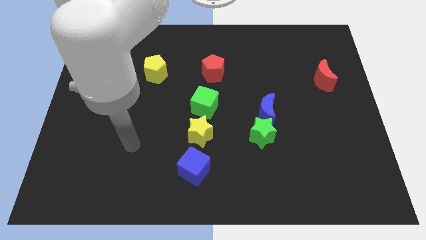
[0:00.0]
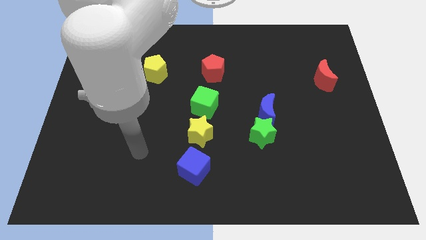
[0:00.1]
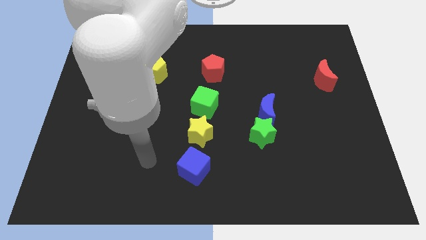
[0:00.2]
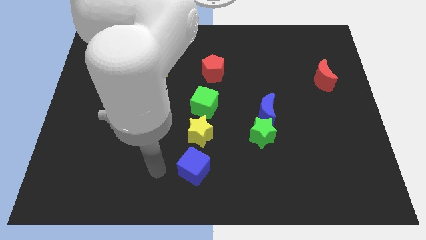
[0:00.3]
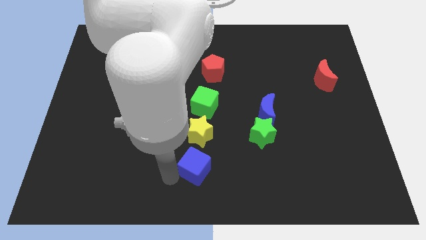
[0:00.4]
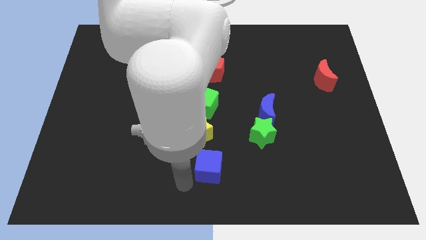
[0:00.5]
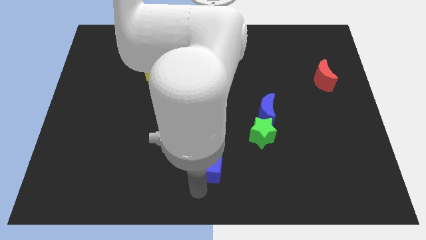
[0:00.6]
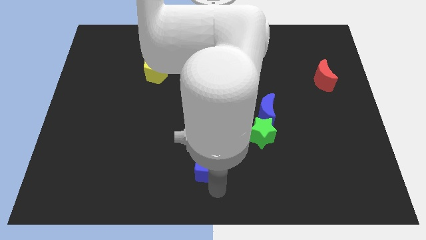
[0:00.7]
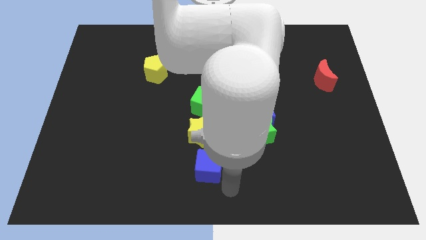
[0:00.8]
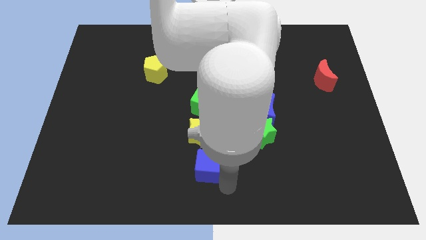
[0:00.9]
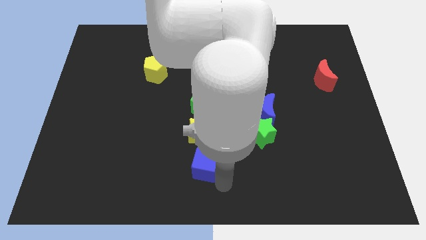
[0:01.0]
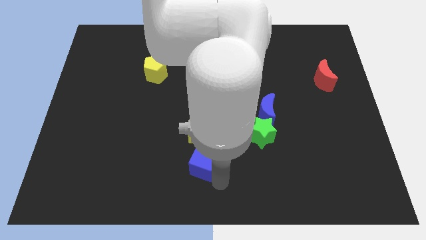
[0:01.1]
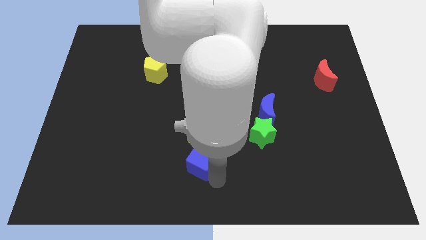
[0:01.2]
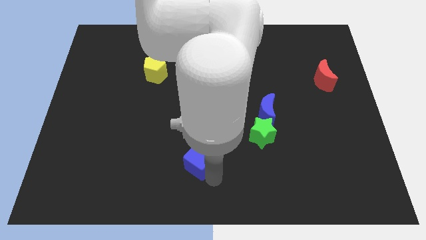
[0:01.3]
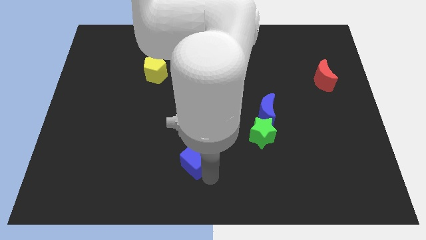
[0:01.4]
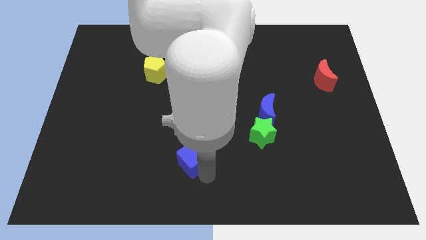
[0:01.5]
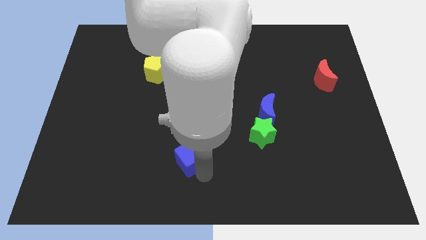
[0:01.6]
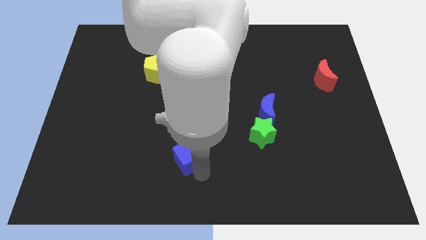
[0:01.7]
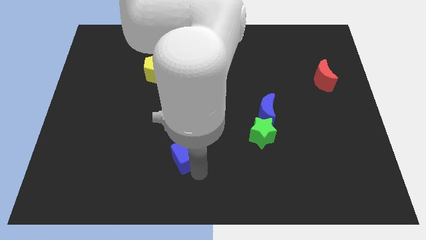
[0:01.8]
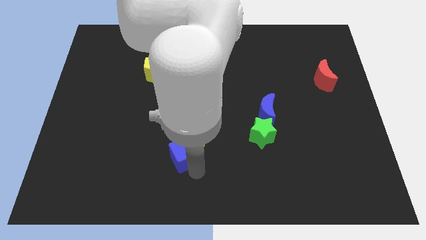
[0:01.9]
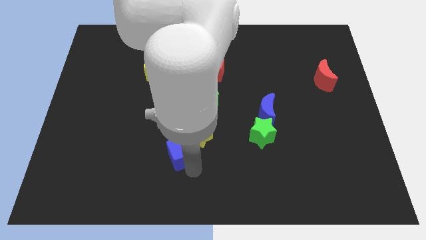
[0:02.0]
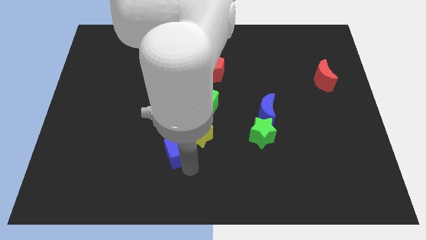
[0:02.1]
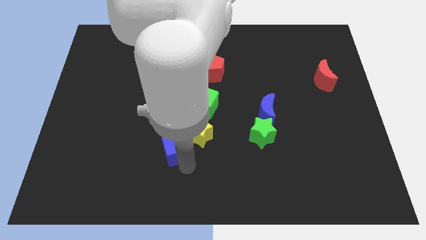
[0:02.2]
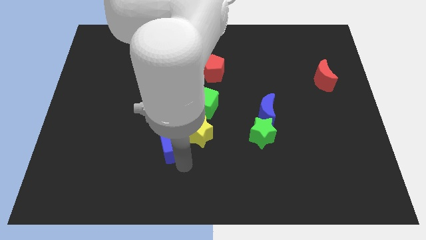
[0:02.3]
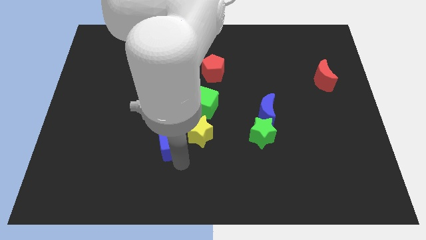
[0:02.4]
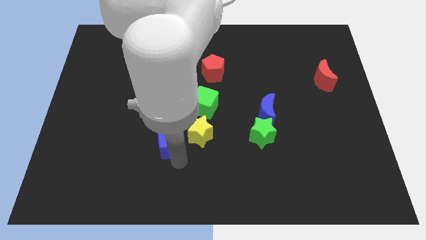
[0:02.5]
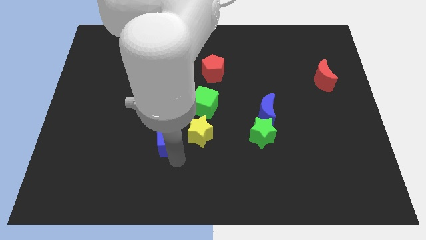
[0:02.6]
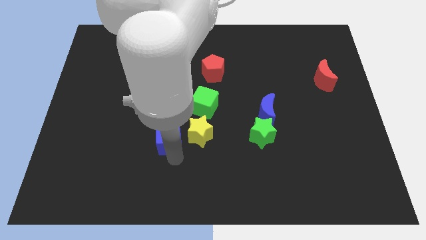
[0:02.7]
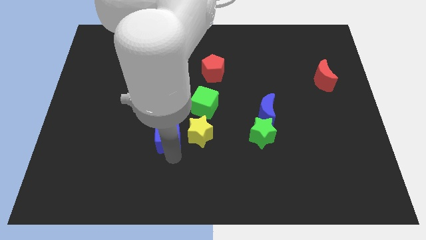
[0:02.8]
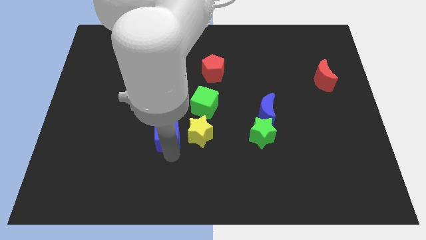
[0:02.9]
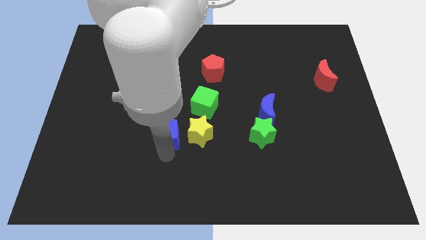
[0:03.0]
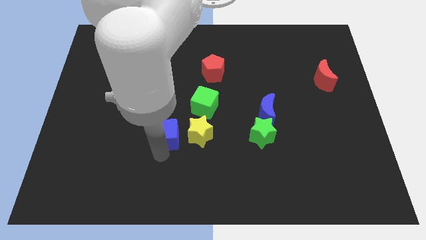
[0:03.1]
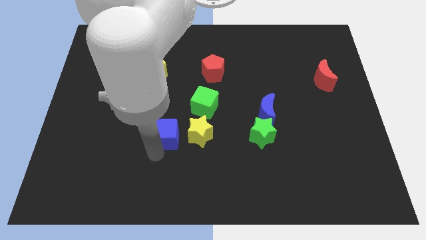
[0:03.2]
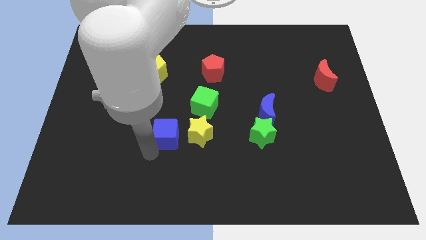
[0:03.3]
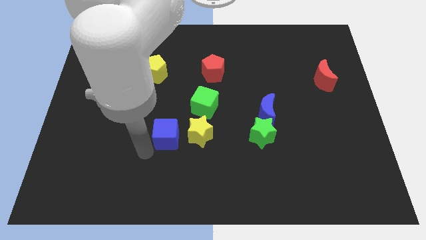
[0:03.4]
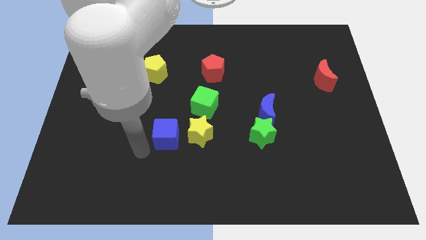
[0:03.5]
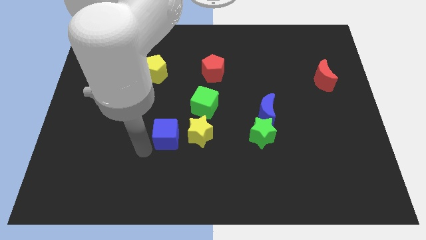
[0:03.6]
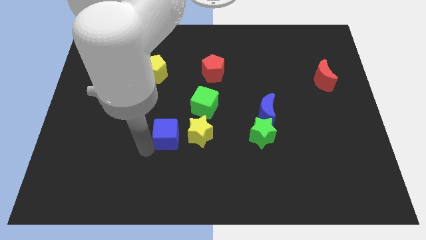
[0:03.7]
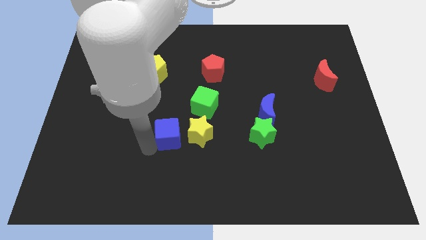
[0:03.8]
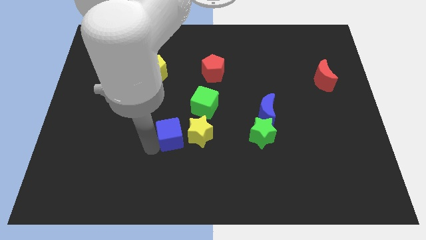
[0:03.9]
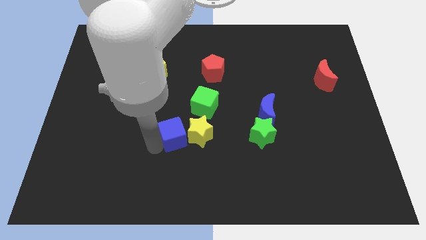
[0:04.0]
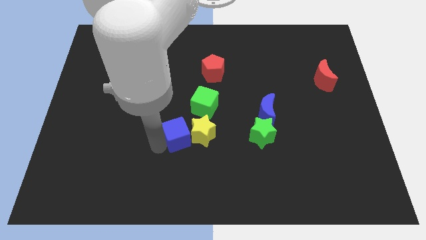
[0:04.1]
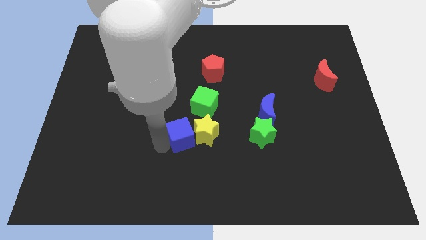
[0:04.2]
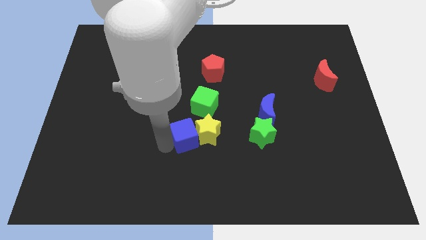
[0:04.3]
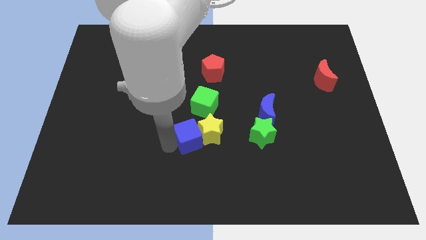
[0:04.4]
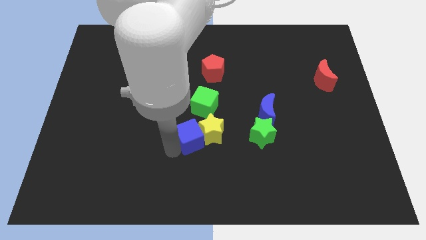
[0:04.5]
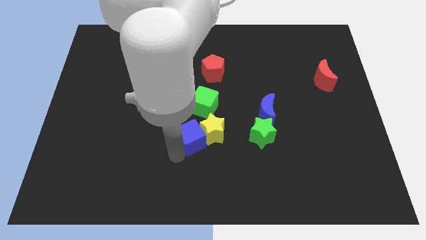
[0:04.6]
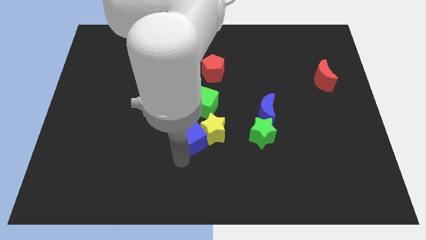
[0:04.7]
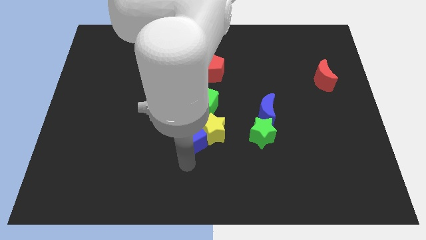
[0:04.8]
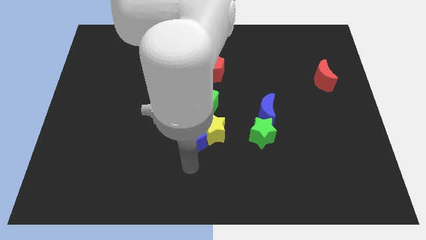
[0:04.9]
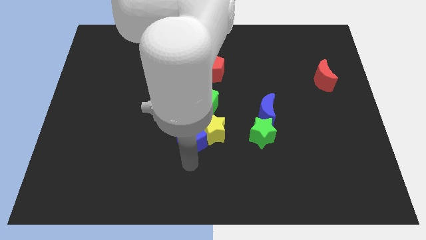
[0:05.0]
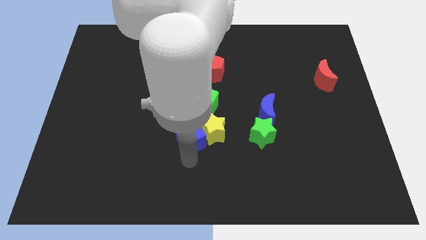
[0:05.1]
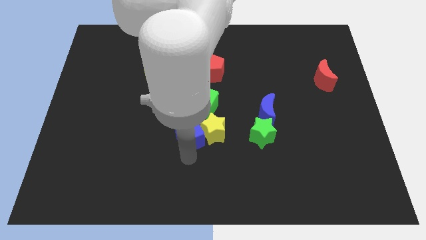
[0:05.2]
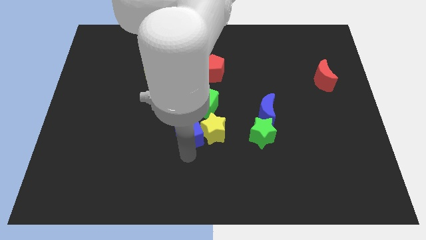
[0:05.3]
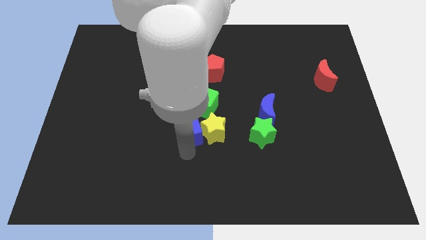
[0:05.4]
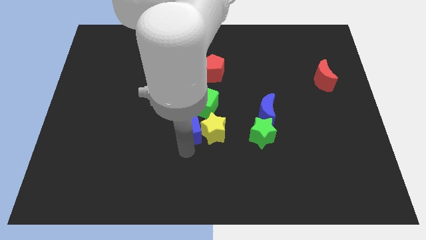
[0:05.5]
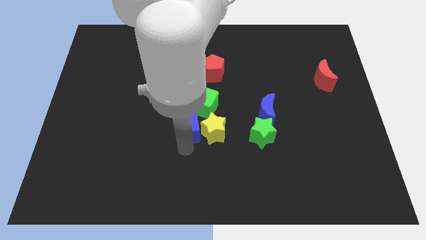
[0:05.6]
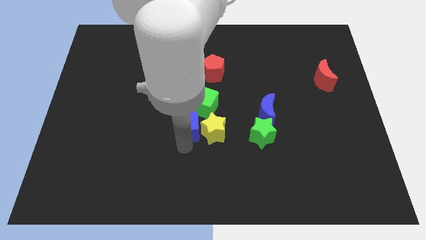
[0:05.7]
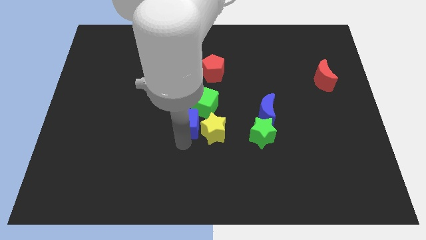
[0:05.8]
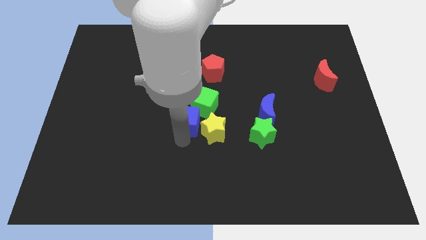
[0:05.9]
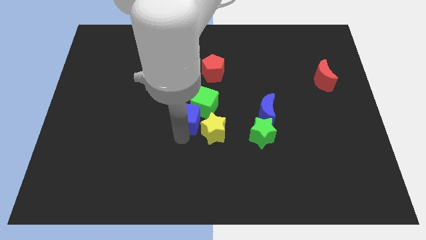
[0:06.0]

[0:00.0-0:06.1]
push the blue cube next to the green cube

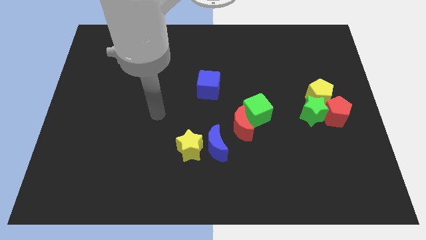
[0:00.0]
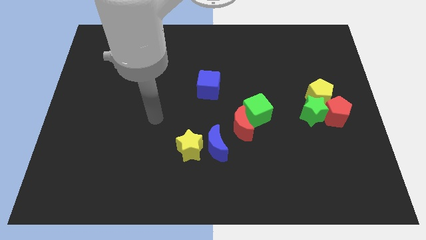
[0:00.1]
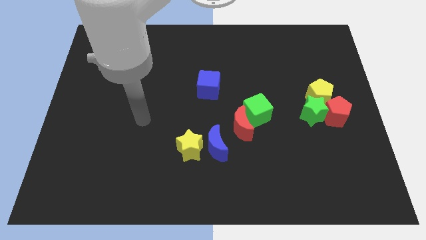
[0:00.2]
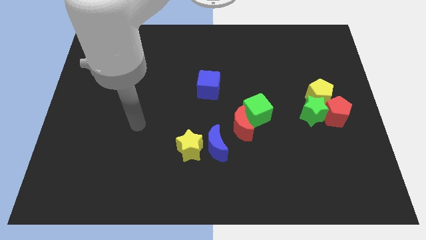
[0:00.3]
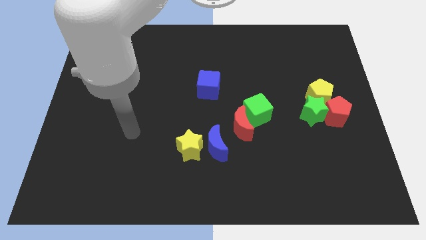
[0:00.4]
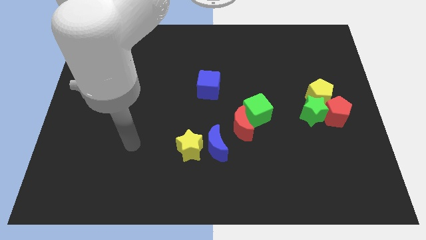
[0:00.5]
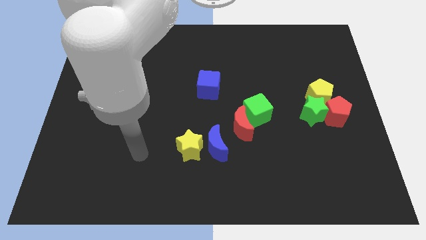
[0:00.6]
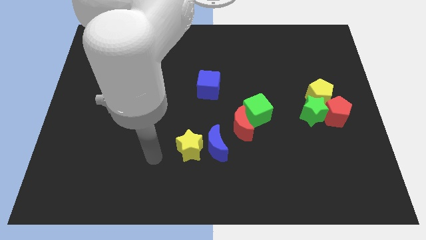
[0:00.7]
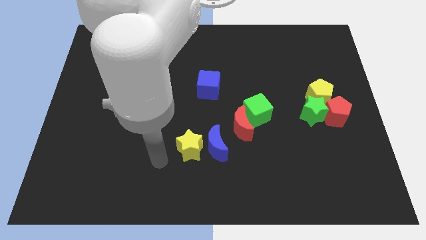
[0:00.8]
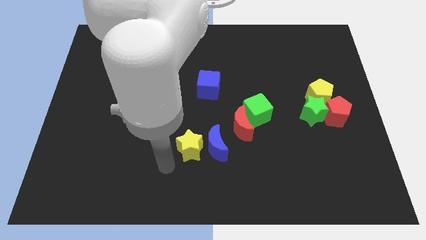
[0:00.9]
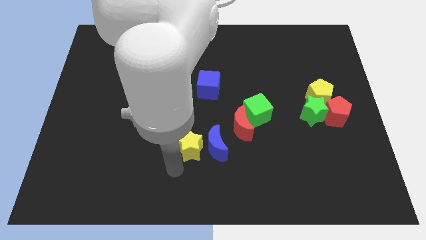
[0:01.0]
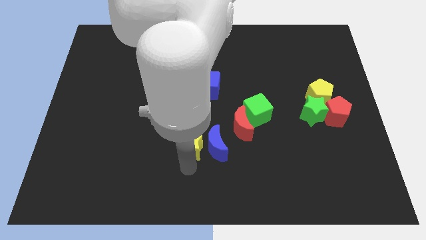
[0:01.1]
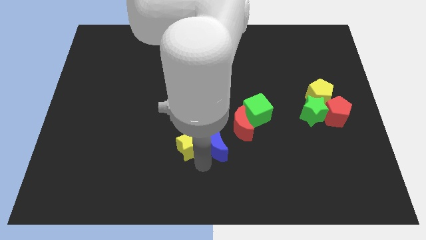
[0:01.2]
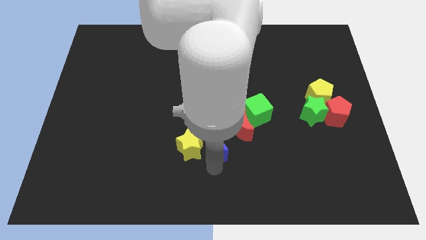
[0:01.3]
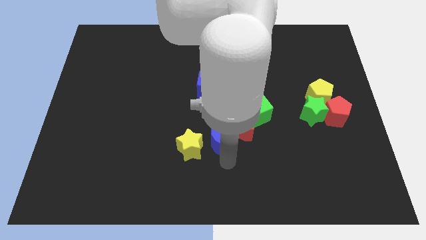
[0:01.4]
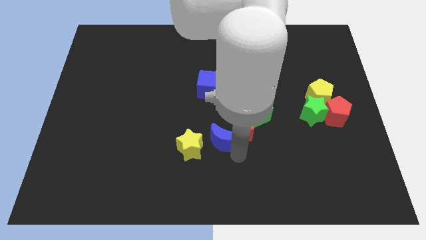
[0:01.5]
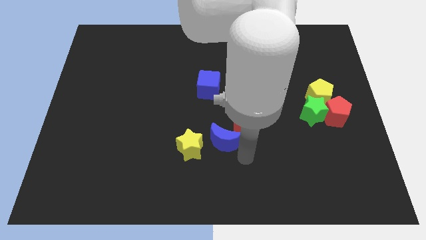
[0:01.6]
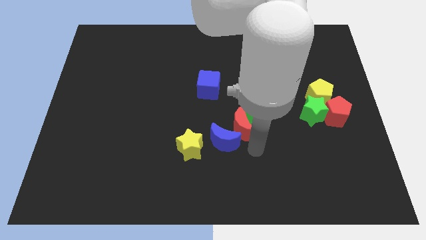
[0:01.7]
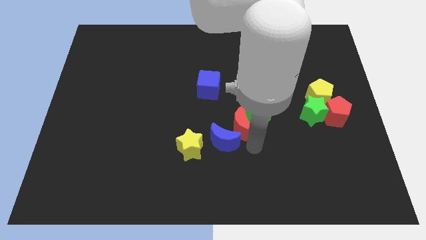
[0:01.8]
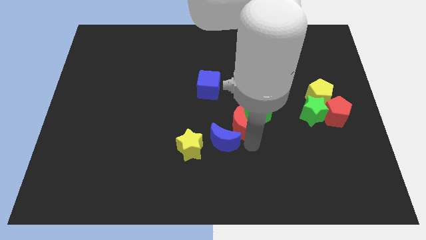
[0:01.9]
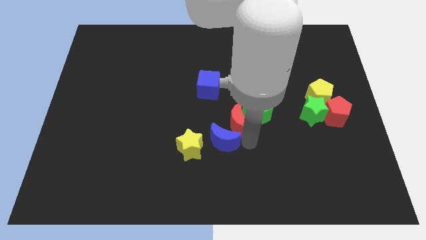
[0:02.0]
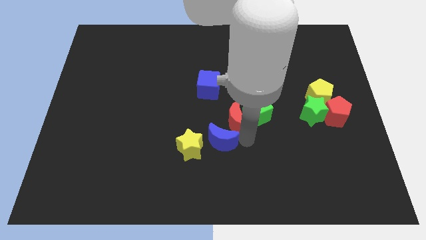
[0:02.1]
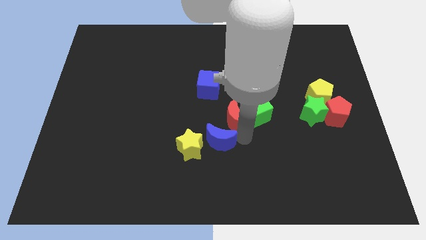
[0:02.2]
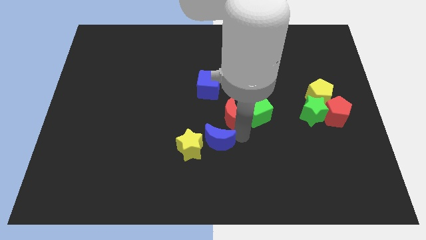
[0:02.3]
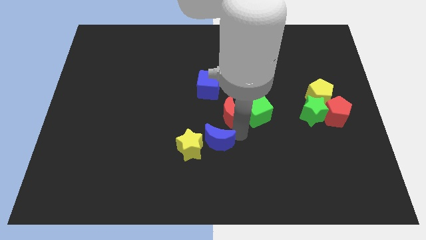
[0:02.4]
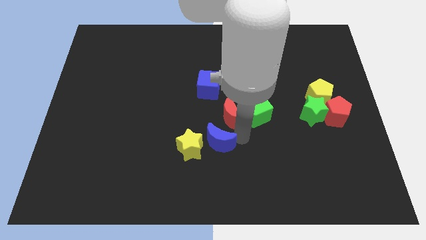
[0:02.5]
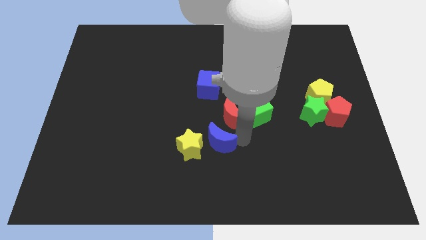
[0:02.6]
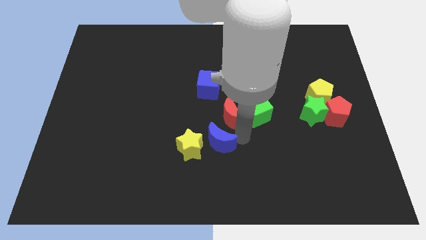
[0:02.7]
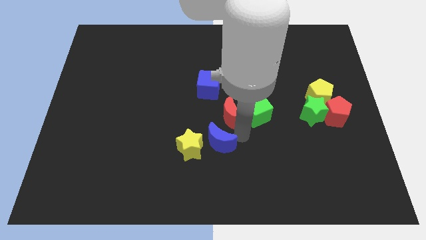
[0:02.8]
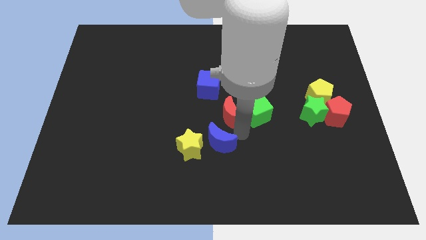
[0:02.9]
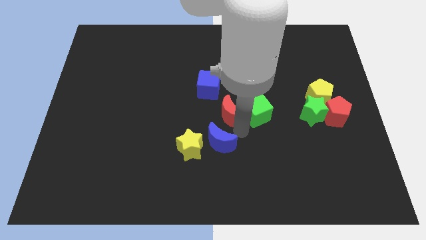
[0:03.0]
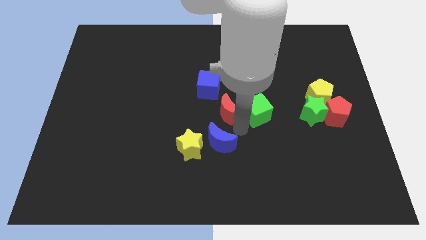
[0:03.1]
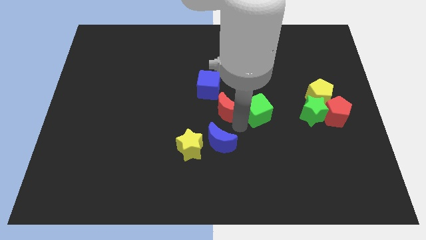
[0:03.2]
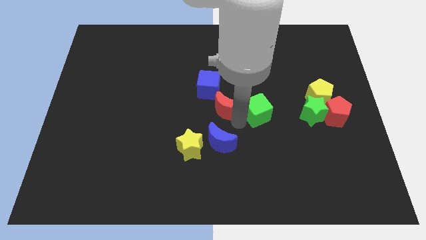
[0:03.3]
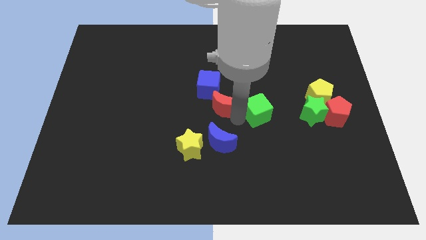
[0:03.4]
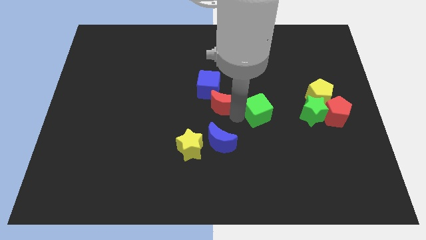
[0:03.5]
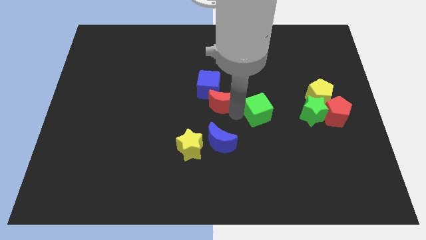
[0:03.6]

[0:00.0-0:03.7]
move the red moon to the blue cube
